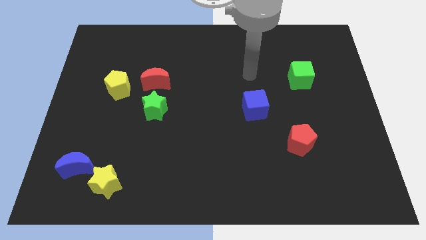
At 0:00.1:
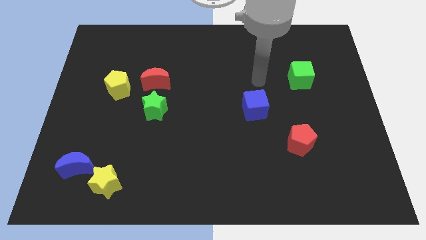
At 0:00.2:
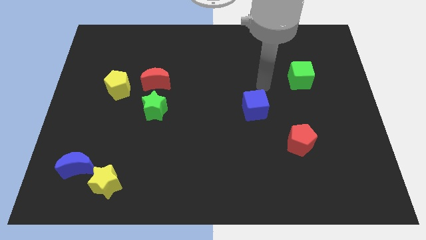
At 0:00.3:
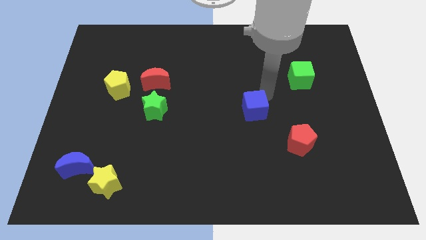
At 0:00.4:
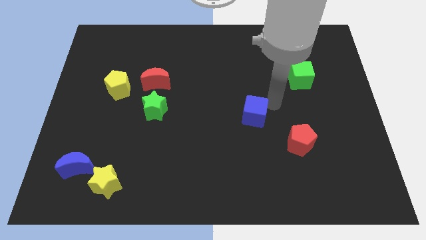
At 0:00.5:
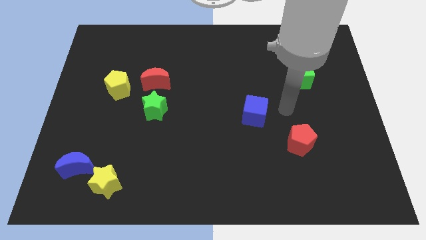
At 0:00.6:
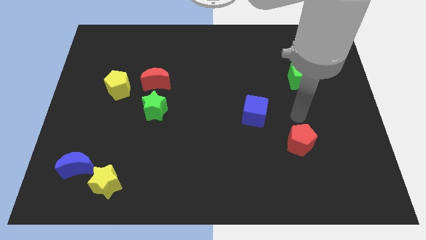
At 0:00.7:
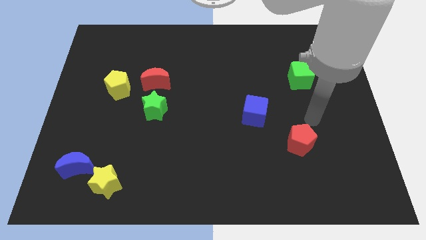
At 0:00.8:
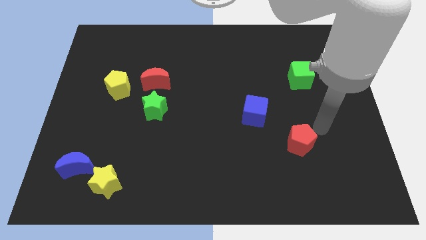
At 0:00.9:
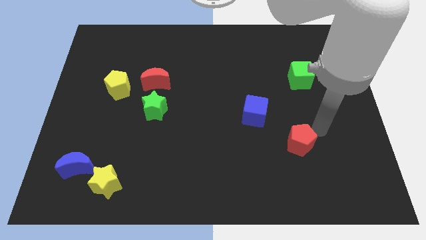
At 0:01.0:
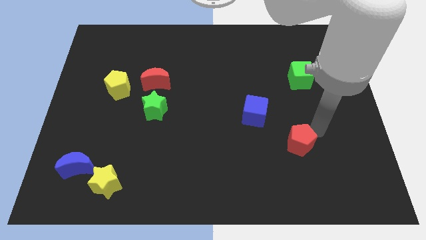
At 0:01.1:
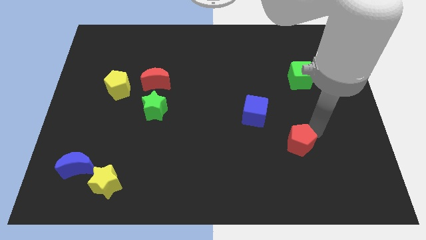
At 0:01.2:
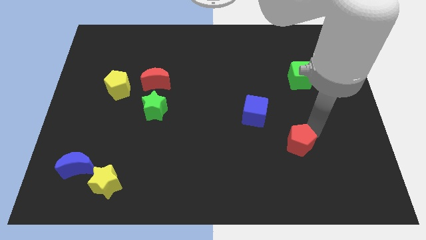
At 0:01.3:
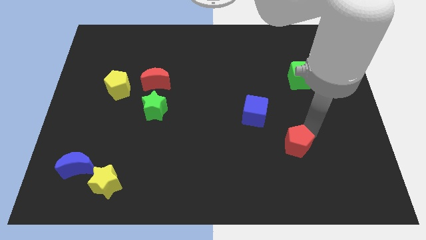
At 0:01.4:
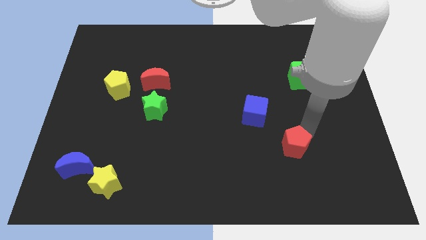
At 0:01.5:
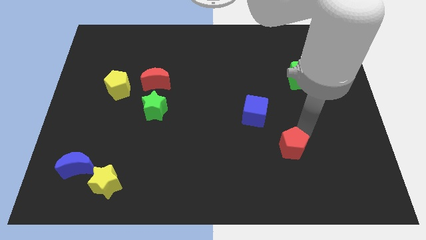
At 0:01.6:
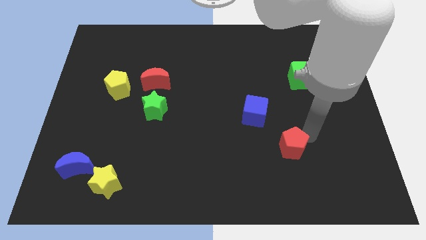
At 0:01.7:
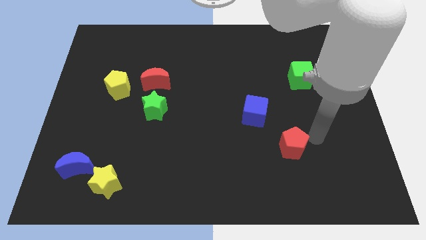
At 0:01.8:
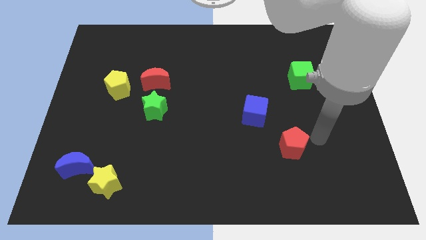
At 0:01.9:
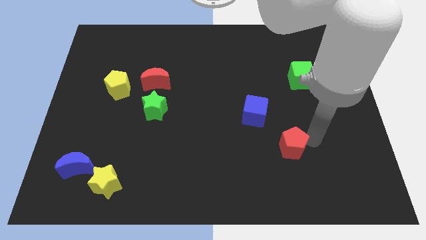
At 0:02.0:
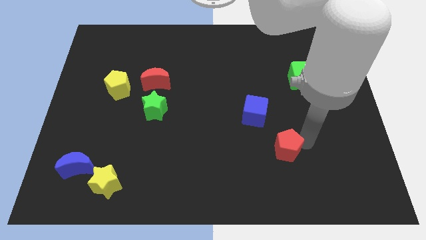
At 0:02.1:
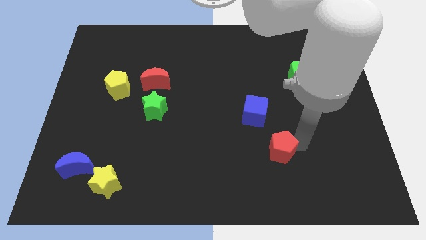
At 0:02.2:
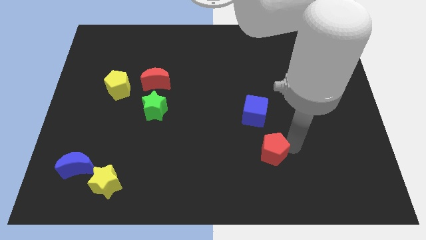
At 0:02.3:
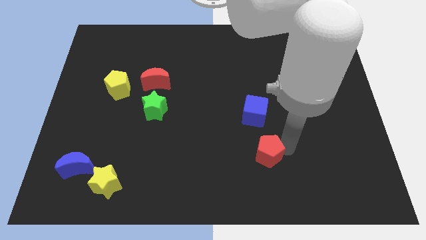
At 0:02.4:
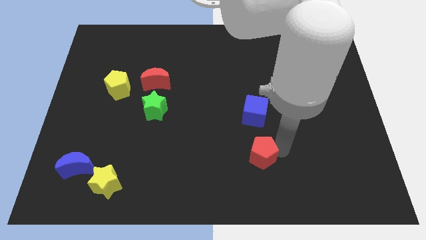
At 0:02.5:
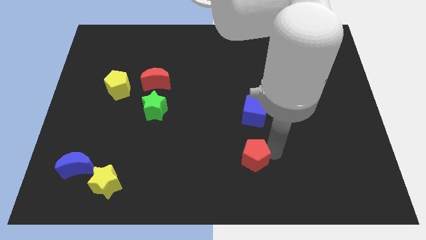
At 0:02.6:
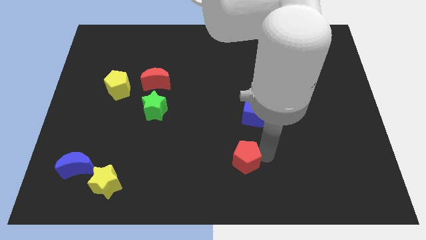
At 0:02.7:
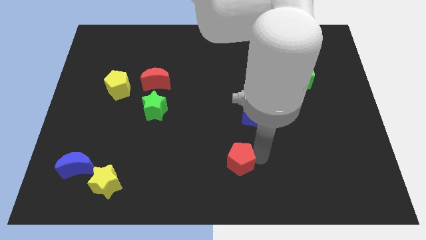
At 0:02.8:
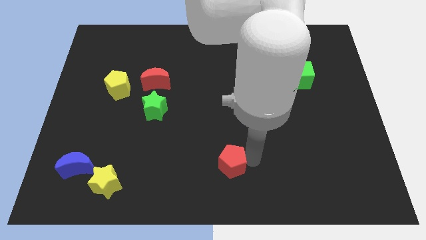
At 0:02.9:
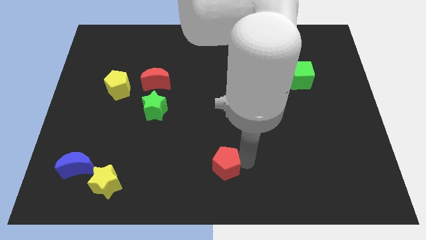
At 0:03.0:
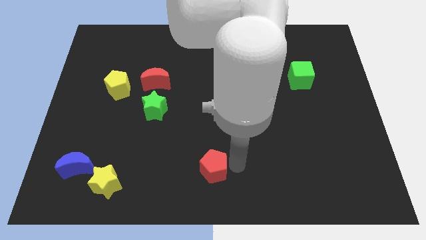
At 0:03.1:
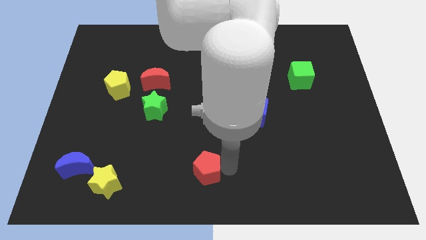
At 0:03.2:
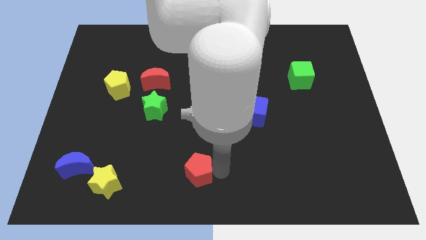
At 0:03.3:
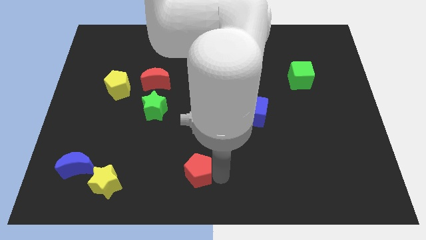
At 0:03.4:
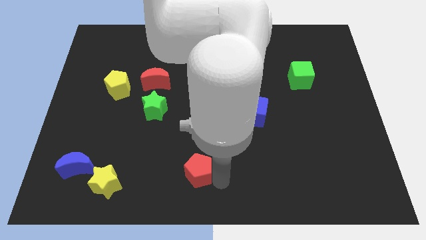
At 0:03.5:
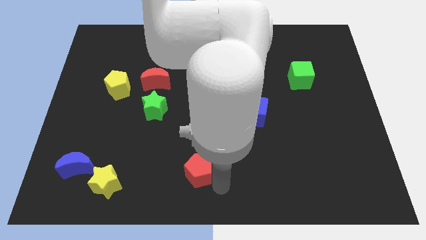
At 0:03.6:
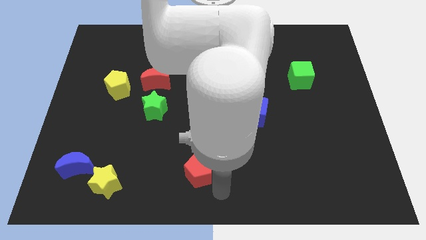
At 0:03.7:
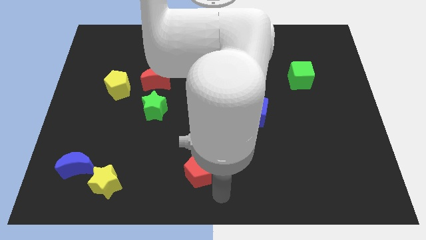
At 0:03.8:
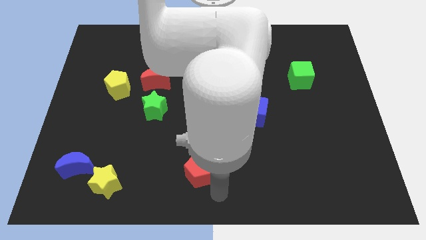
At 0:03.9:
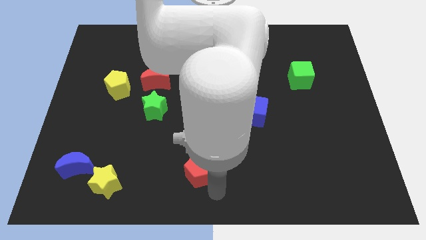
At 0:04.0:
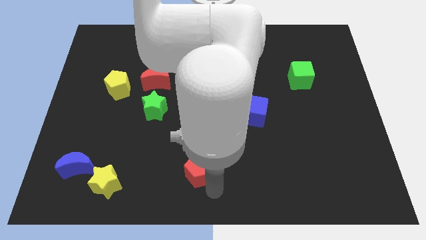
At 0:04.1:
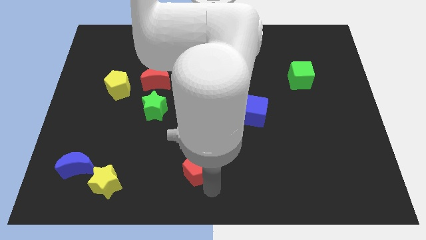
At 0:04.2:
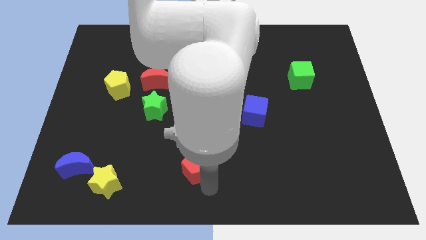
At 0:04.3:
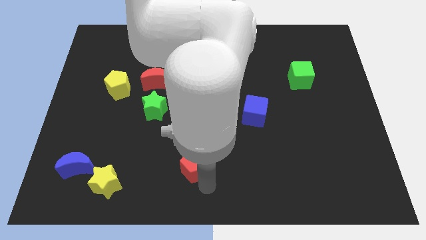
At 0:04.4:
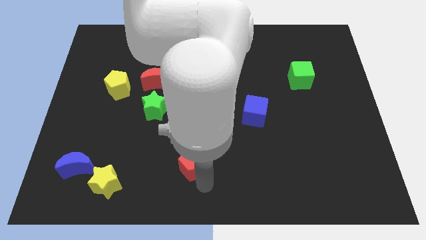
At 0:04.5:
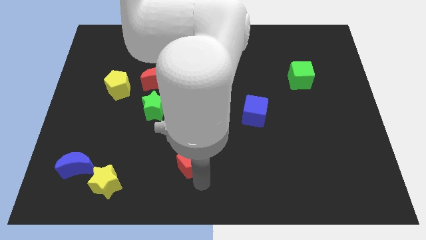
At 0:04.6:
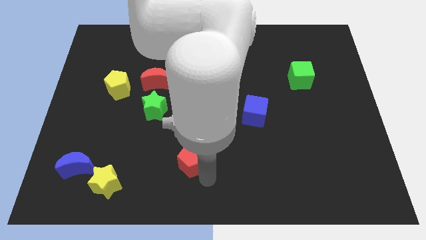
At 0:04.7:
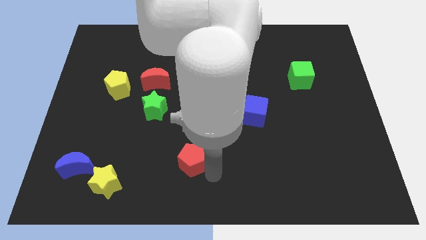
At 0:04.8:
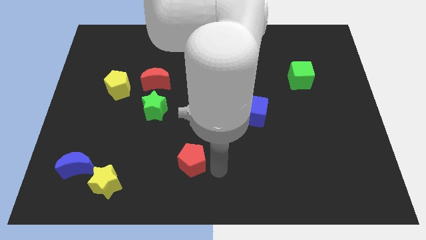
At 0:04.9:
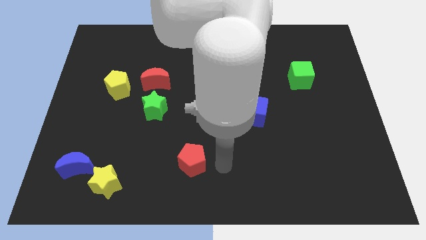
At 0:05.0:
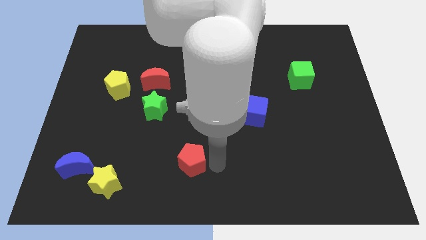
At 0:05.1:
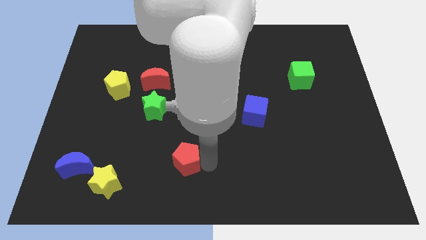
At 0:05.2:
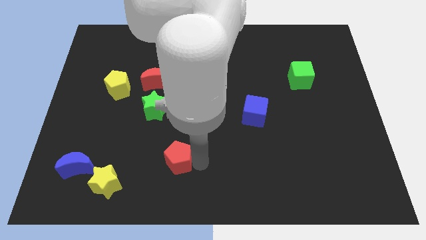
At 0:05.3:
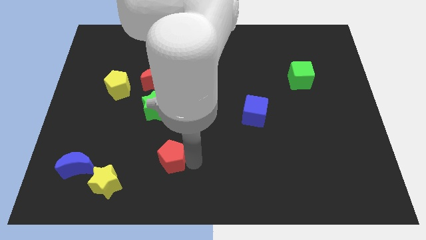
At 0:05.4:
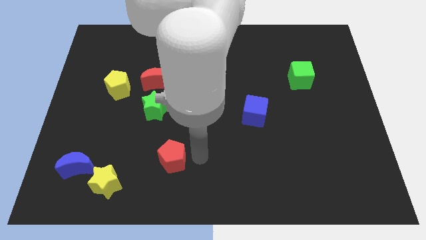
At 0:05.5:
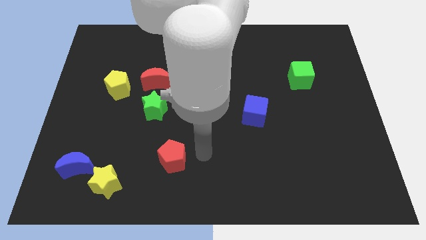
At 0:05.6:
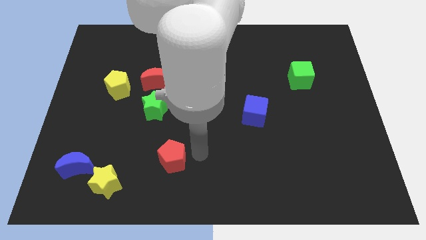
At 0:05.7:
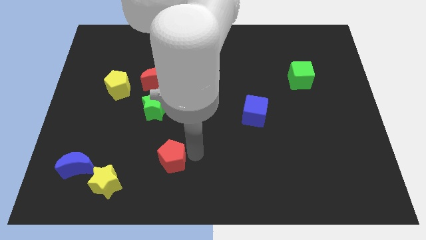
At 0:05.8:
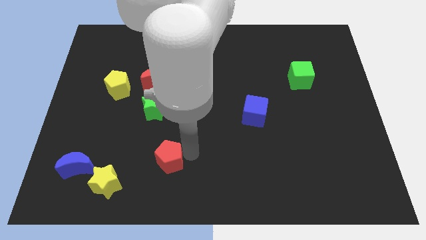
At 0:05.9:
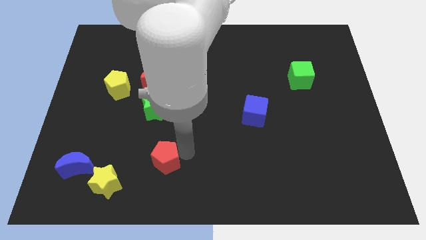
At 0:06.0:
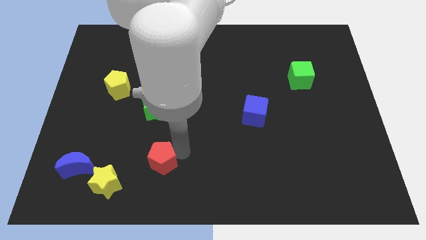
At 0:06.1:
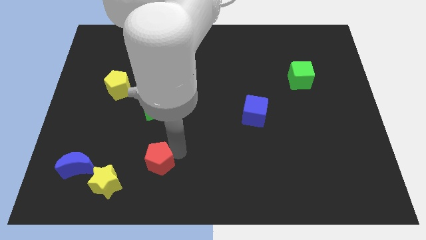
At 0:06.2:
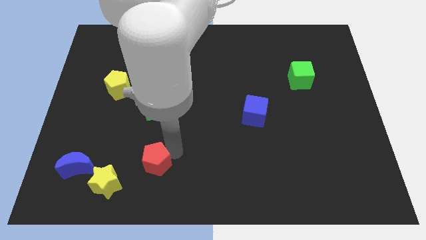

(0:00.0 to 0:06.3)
move the red pentagon to the right side of the blue moon

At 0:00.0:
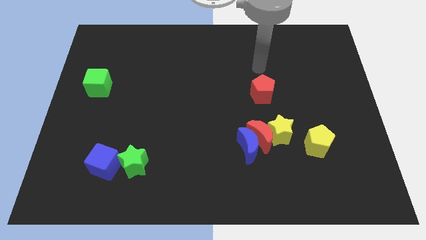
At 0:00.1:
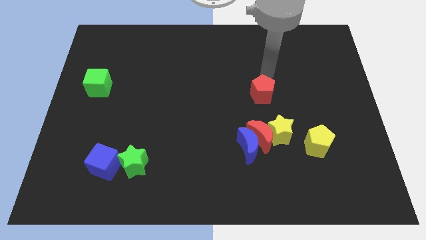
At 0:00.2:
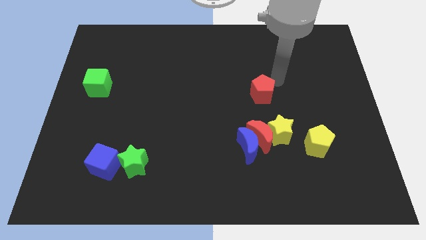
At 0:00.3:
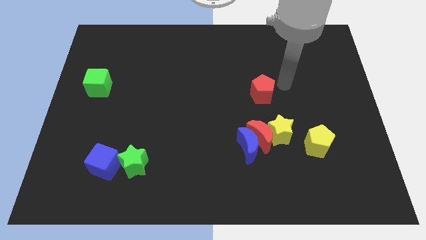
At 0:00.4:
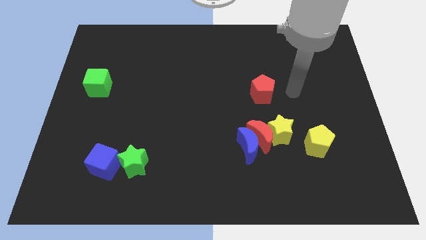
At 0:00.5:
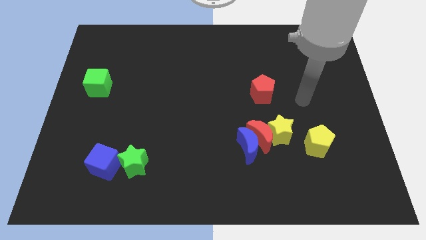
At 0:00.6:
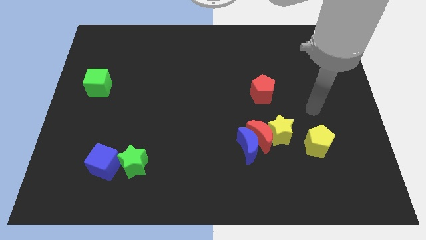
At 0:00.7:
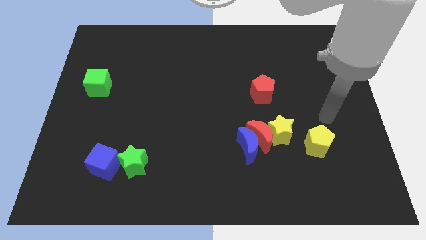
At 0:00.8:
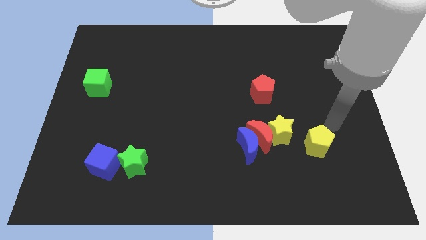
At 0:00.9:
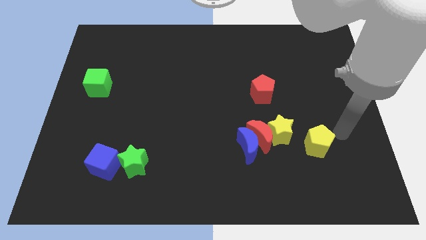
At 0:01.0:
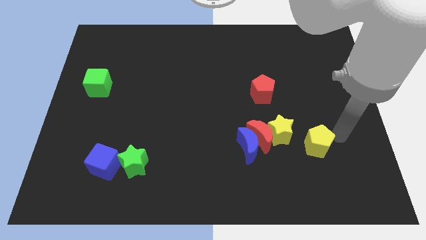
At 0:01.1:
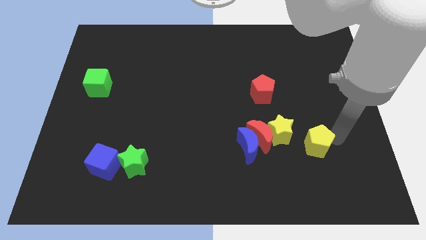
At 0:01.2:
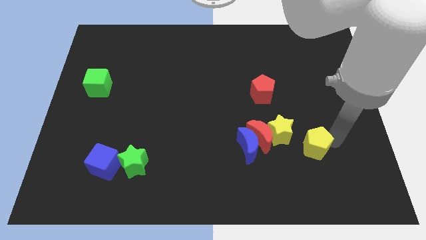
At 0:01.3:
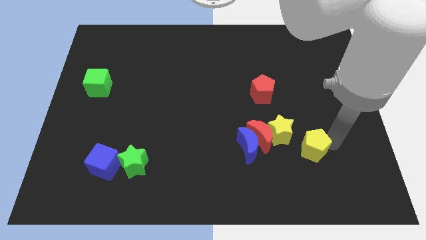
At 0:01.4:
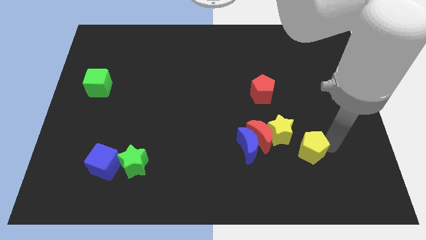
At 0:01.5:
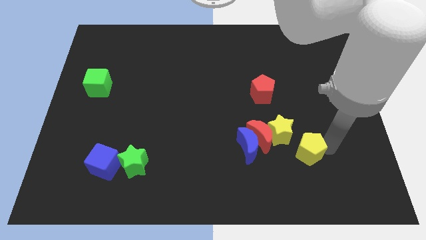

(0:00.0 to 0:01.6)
slide the yellow pentagon diagonally down and to the right of the red moon
